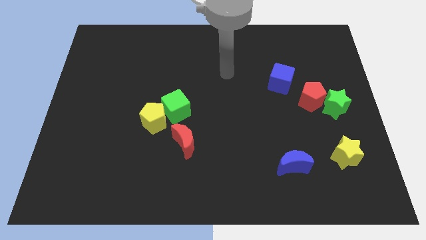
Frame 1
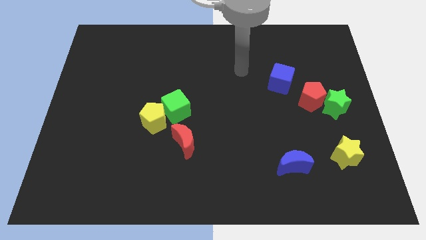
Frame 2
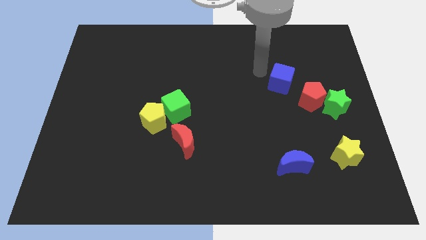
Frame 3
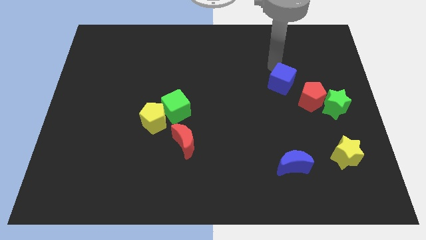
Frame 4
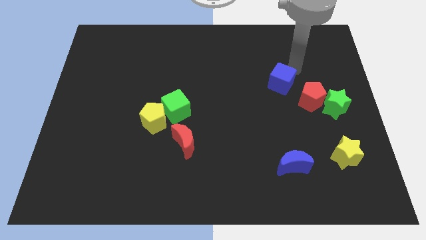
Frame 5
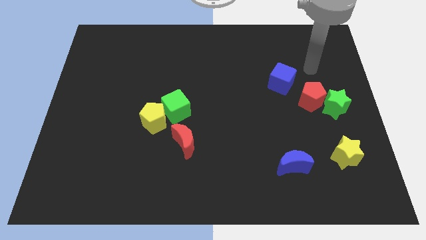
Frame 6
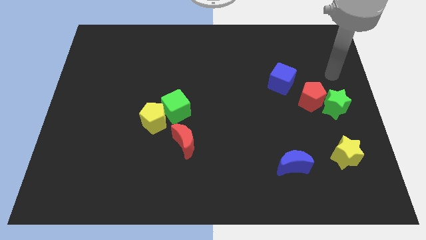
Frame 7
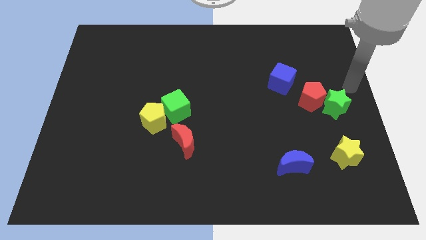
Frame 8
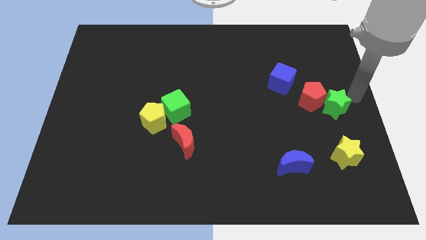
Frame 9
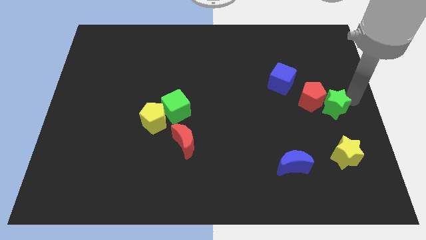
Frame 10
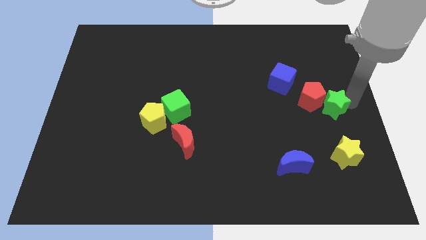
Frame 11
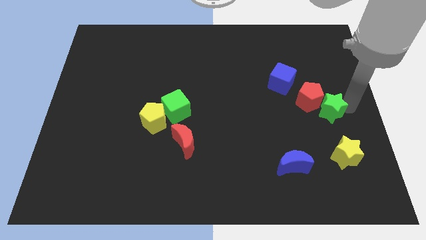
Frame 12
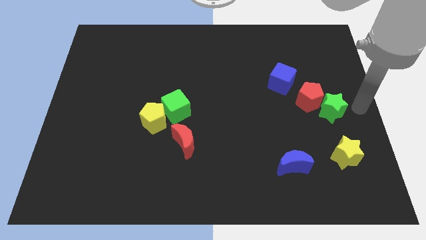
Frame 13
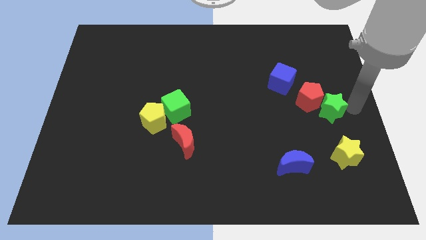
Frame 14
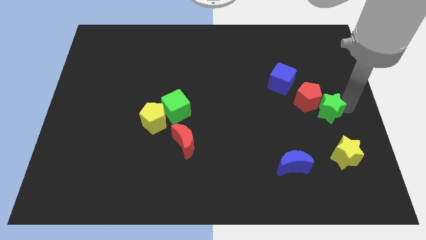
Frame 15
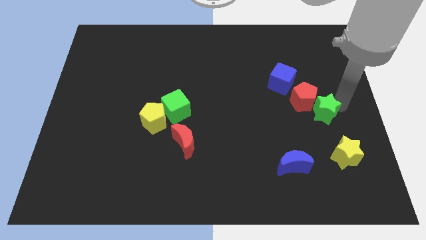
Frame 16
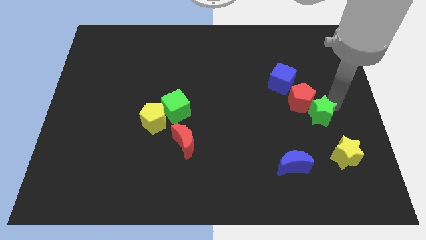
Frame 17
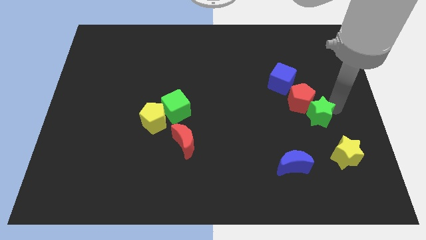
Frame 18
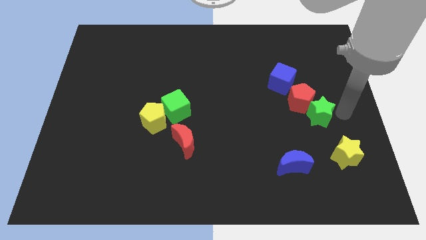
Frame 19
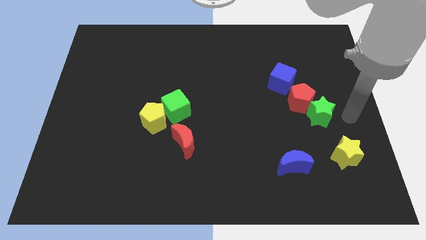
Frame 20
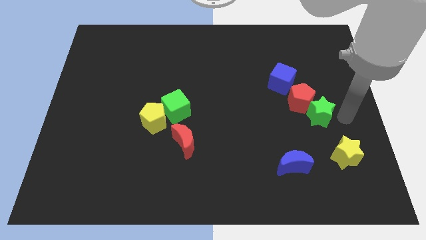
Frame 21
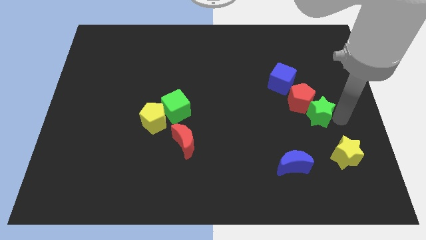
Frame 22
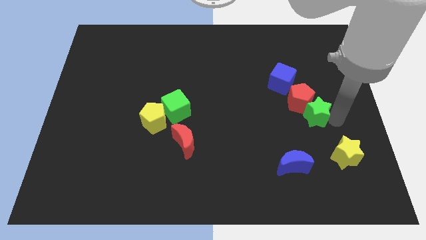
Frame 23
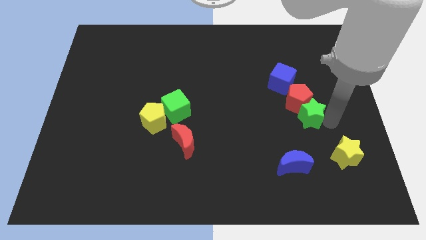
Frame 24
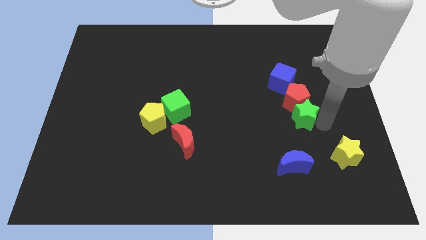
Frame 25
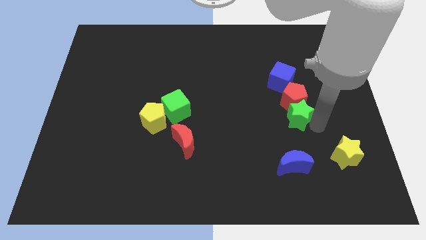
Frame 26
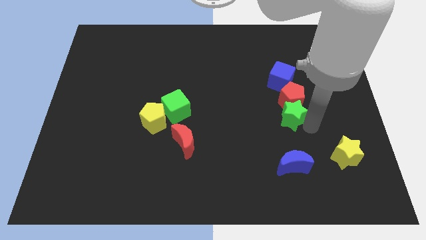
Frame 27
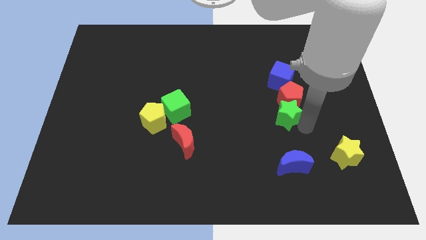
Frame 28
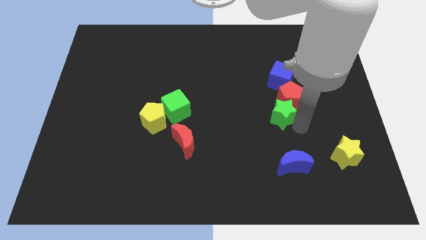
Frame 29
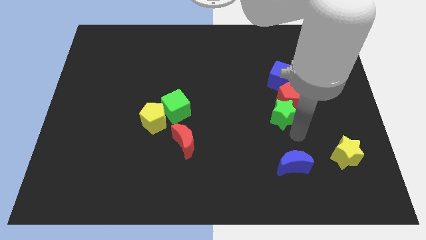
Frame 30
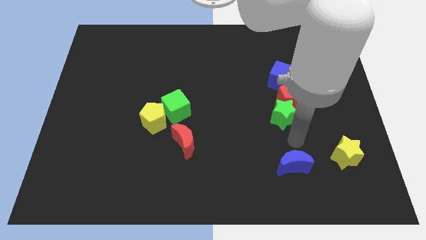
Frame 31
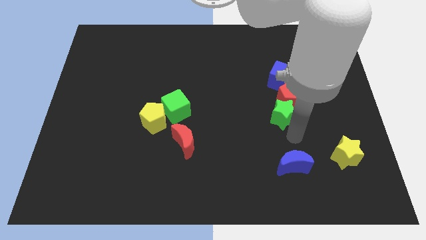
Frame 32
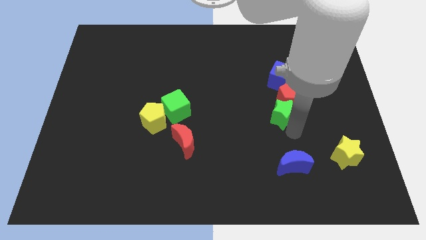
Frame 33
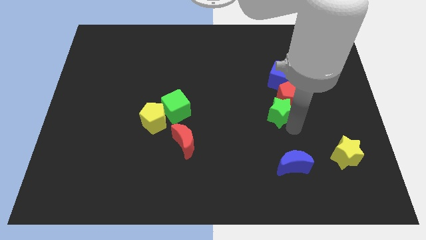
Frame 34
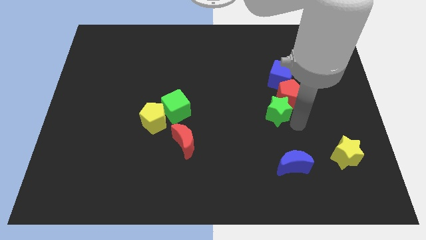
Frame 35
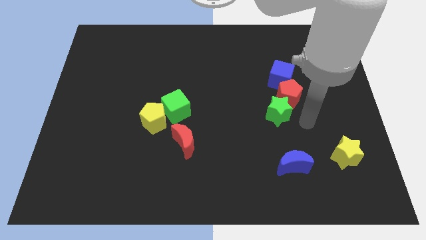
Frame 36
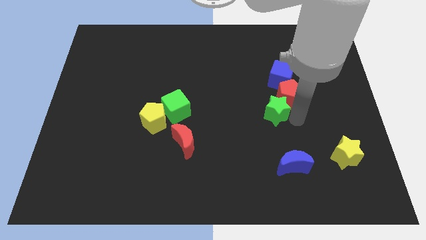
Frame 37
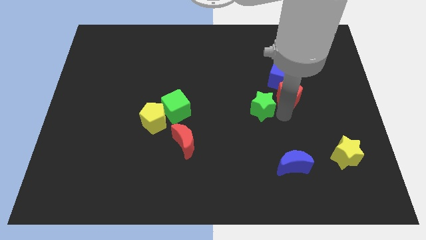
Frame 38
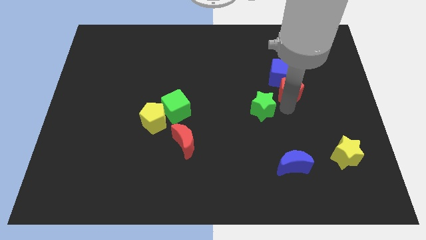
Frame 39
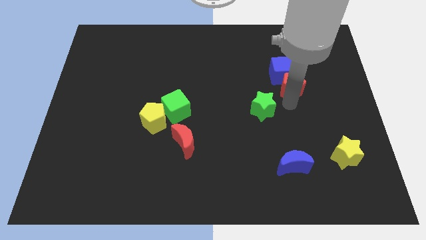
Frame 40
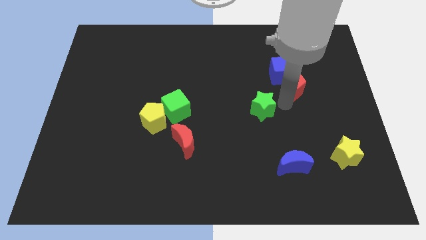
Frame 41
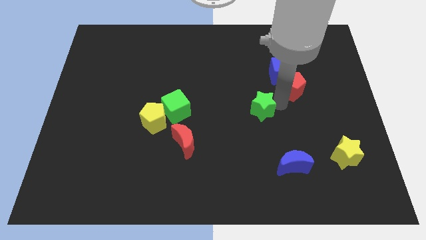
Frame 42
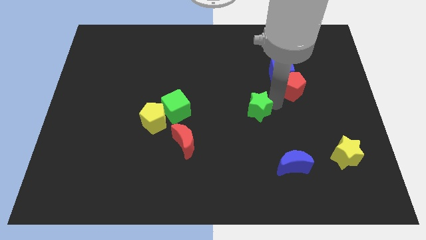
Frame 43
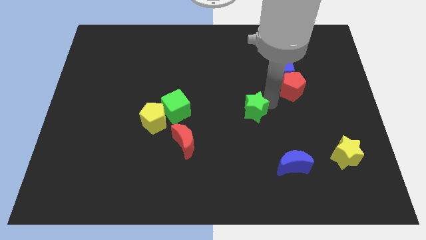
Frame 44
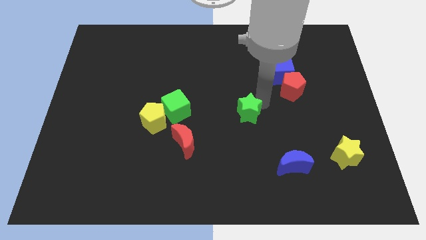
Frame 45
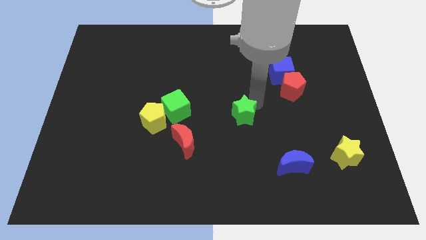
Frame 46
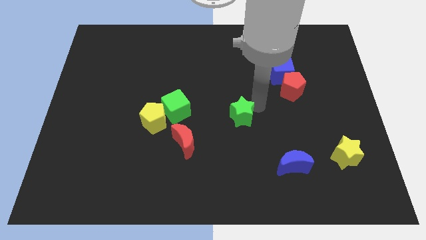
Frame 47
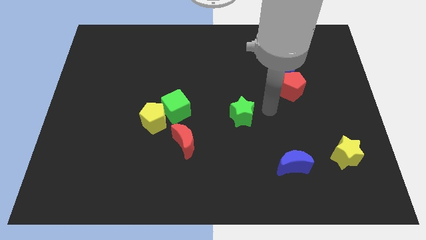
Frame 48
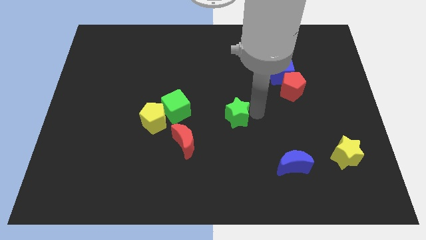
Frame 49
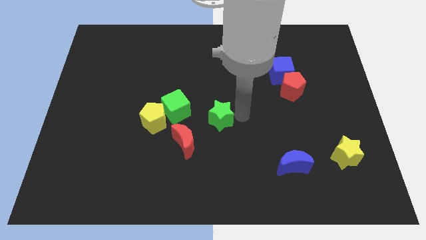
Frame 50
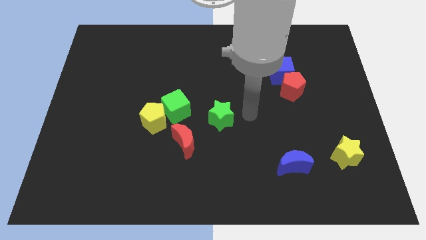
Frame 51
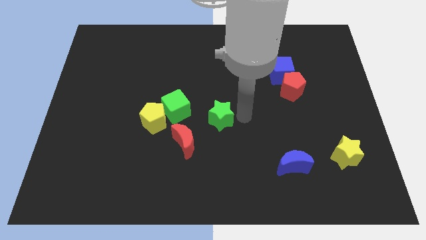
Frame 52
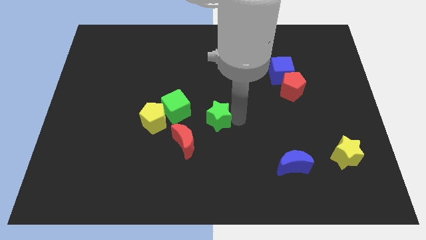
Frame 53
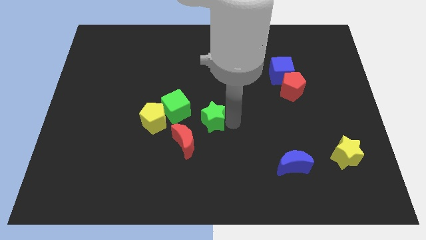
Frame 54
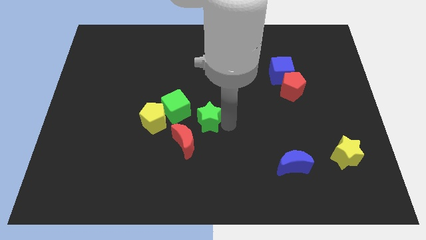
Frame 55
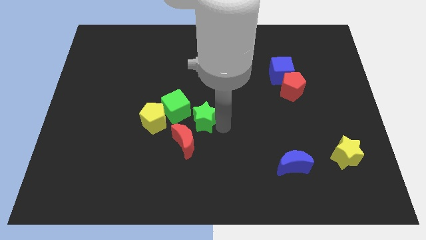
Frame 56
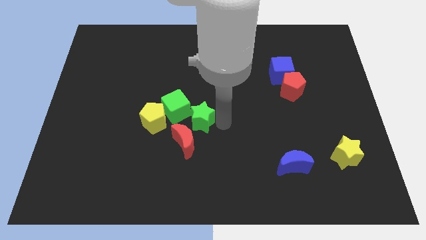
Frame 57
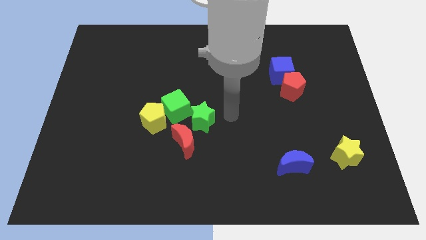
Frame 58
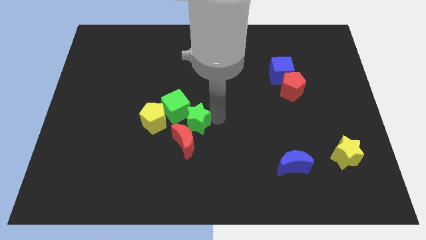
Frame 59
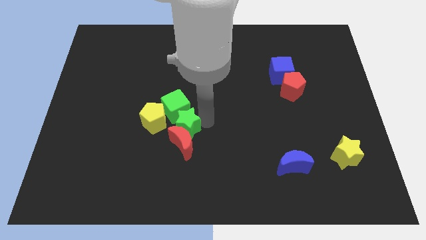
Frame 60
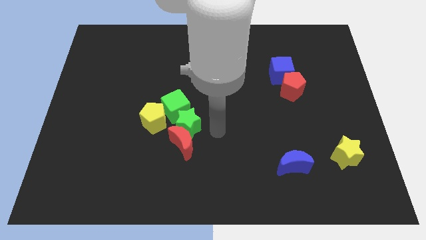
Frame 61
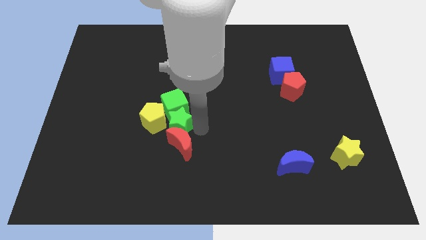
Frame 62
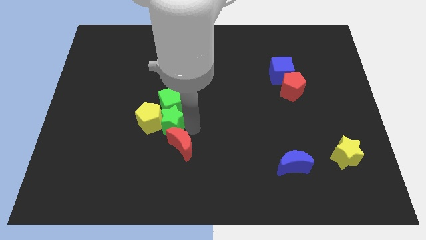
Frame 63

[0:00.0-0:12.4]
move the green star close to the yellow pentagon

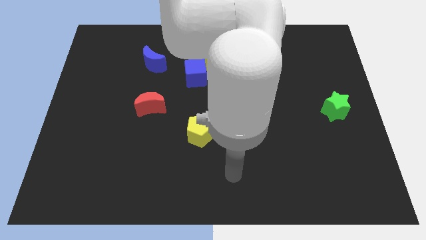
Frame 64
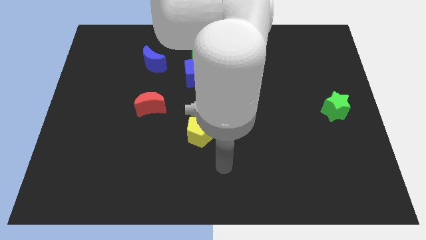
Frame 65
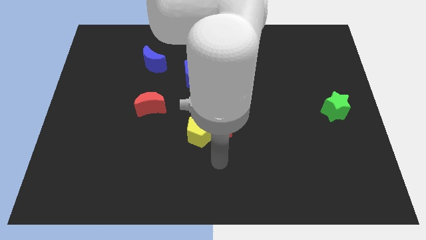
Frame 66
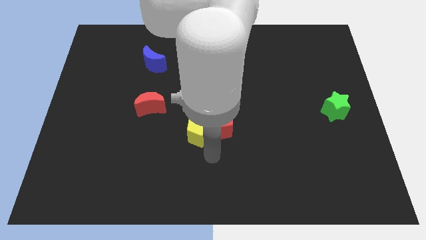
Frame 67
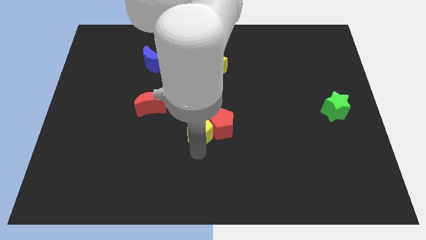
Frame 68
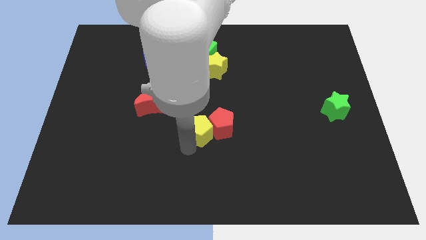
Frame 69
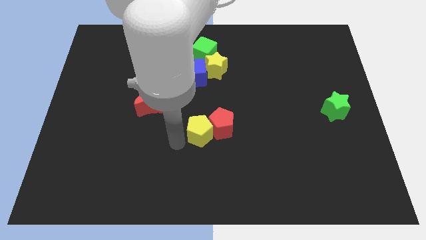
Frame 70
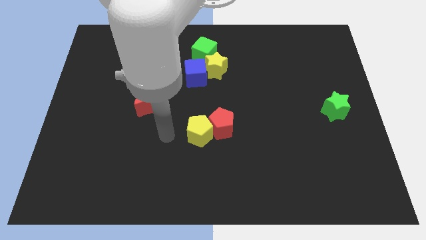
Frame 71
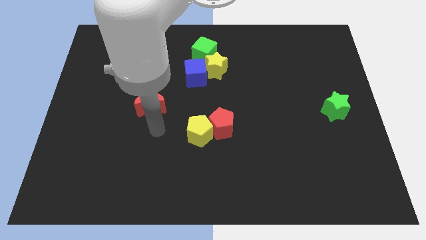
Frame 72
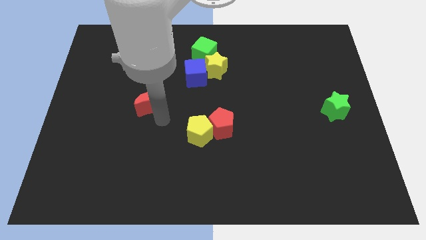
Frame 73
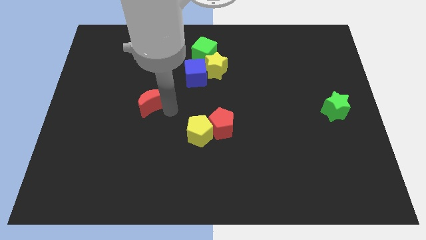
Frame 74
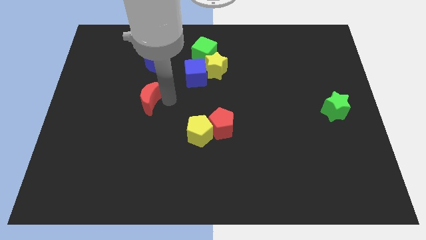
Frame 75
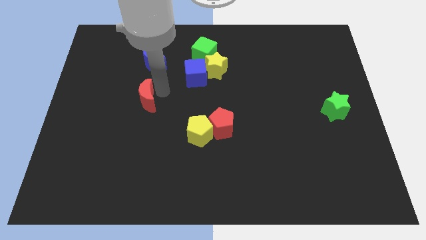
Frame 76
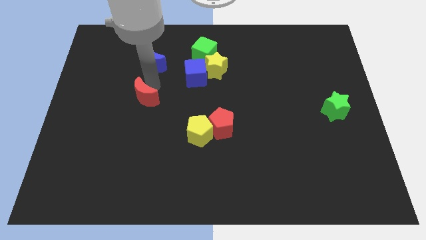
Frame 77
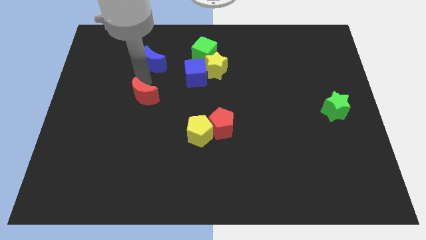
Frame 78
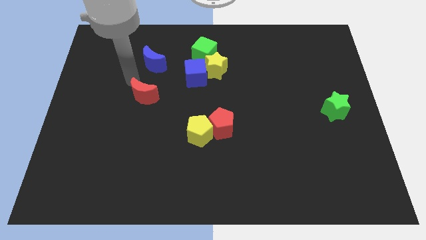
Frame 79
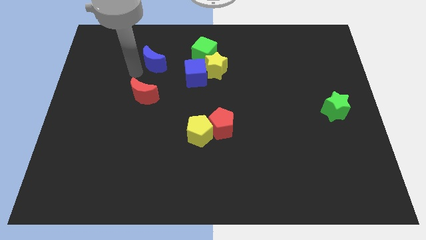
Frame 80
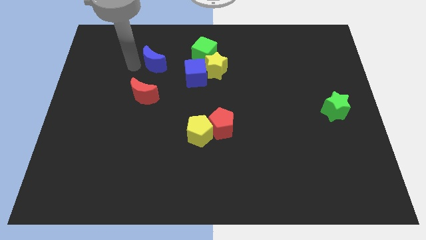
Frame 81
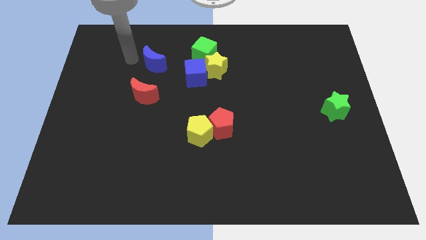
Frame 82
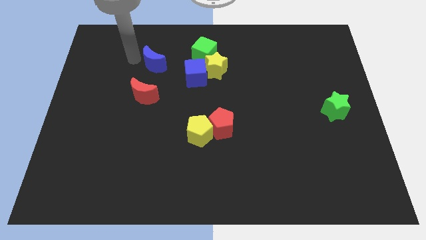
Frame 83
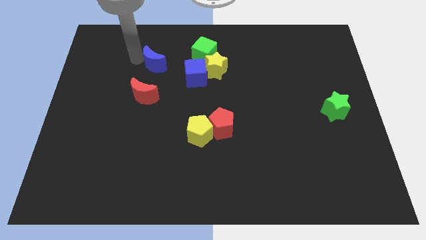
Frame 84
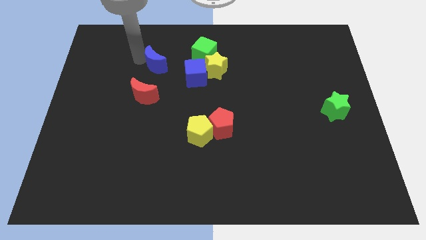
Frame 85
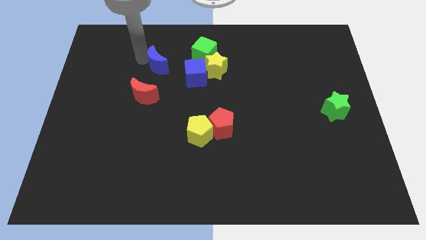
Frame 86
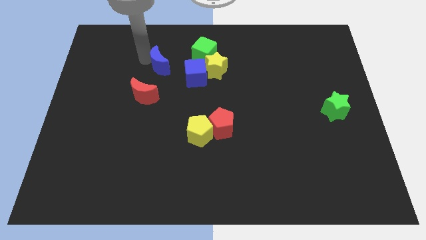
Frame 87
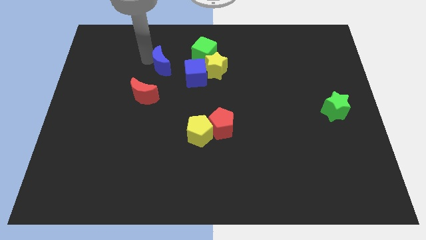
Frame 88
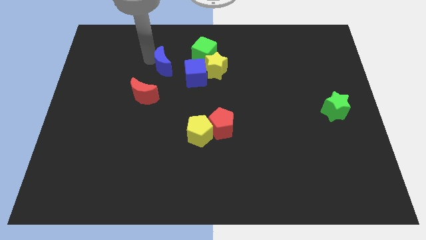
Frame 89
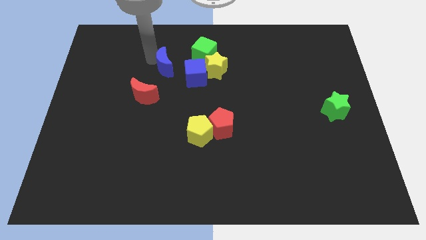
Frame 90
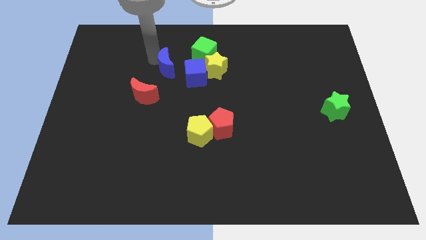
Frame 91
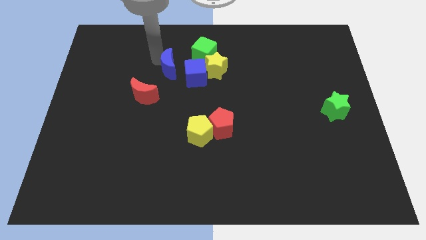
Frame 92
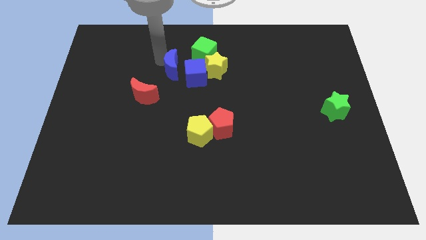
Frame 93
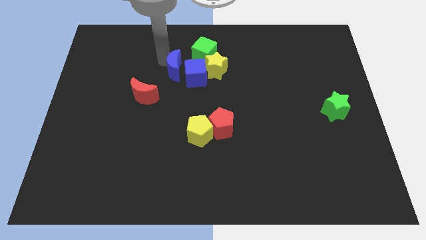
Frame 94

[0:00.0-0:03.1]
put the blue moon to the blue cube
